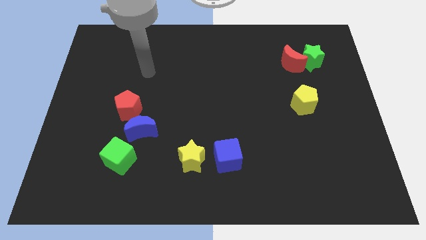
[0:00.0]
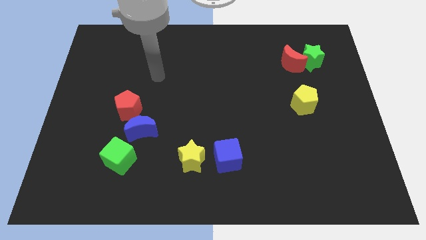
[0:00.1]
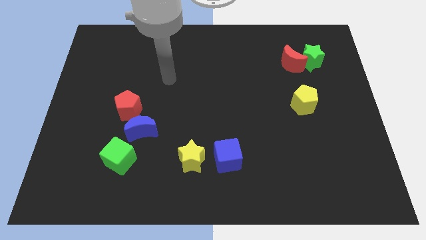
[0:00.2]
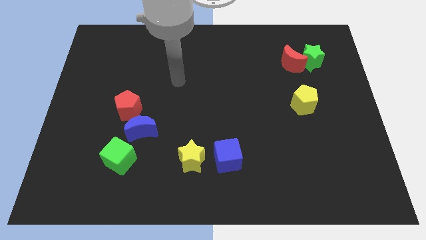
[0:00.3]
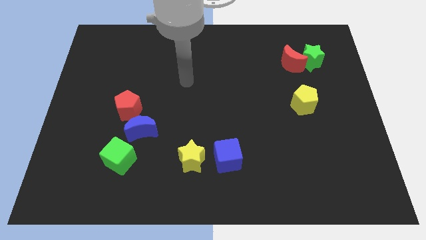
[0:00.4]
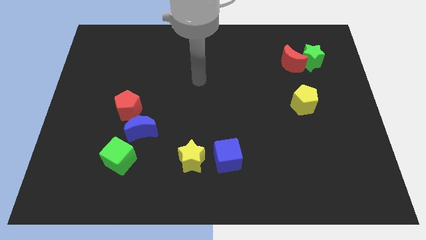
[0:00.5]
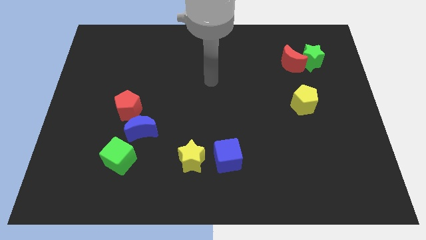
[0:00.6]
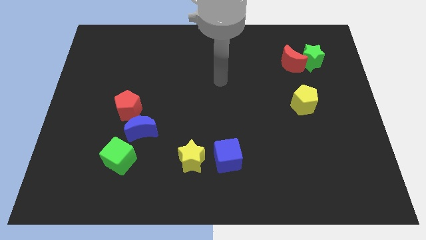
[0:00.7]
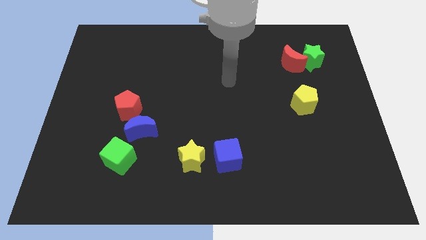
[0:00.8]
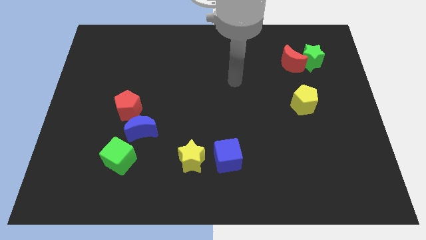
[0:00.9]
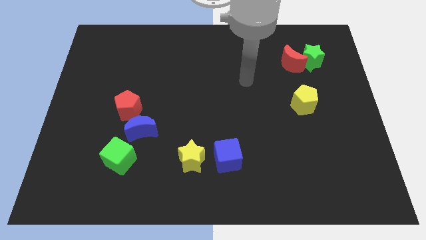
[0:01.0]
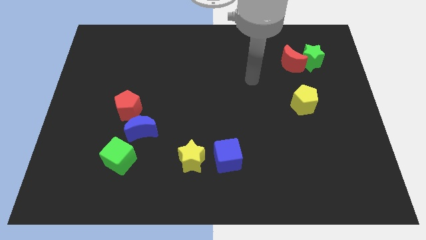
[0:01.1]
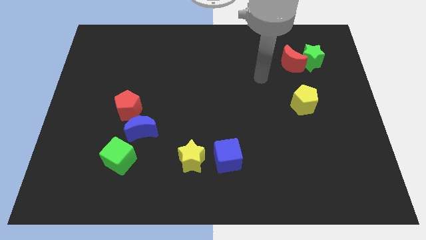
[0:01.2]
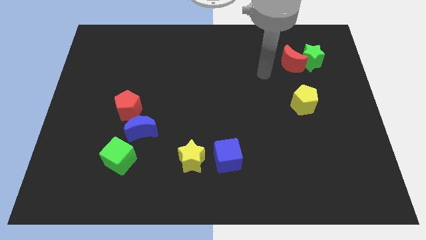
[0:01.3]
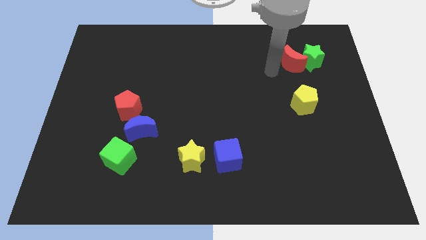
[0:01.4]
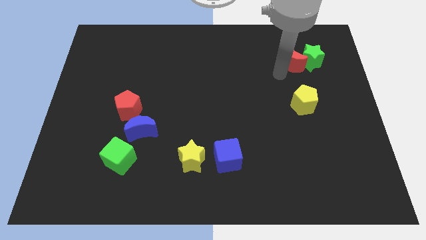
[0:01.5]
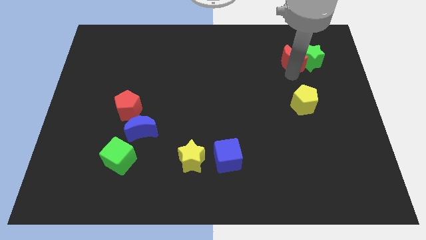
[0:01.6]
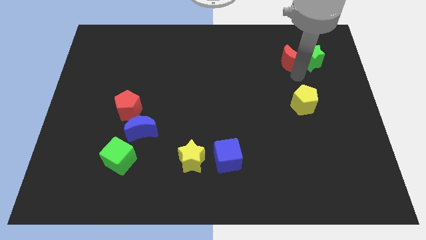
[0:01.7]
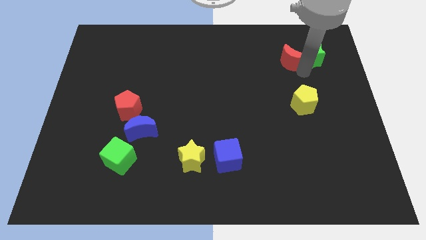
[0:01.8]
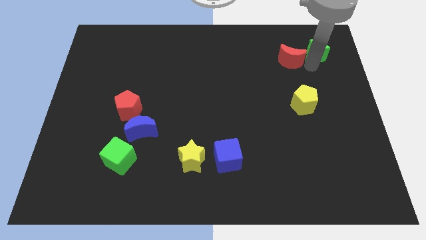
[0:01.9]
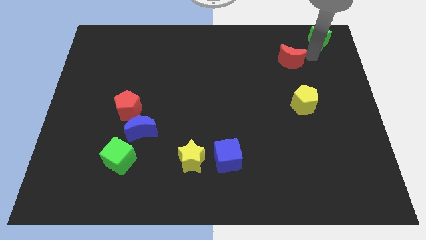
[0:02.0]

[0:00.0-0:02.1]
move the red moon away from the green star

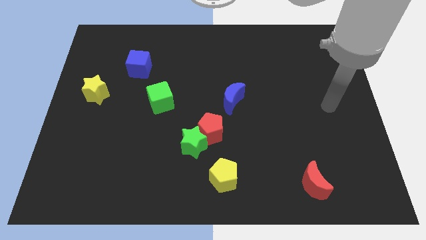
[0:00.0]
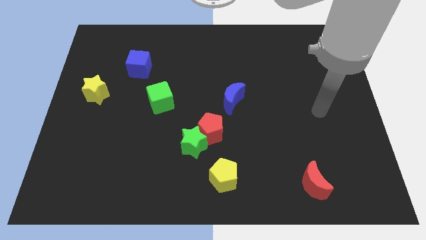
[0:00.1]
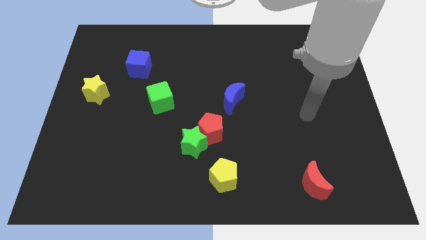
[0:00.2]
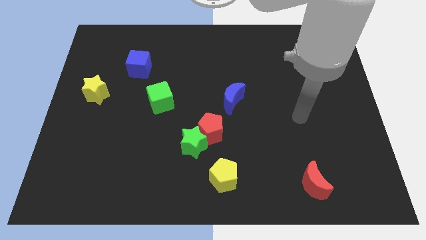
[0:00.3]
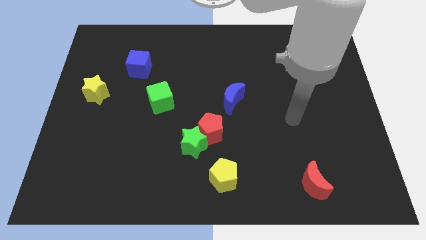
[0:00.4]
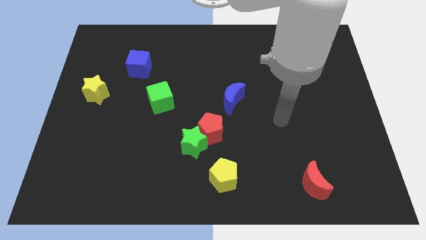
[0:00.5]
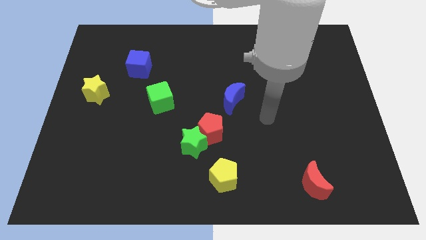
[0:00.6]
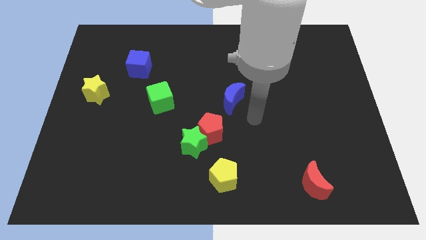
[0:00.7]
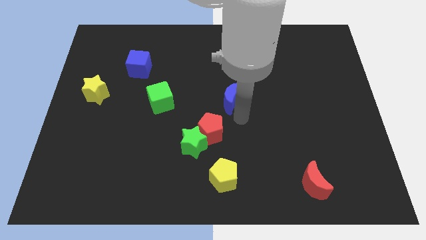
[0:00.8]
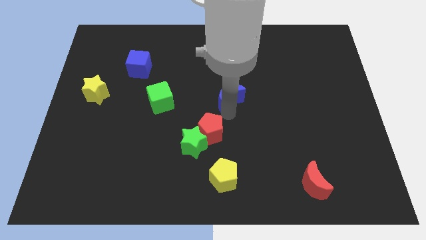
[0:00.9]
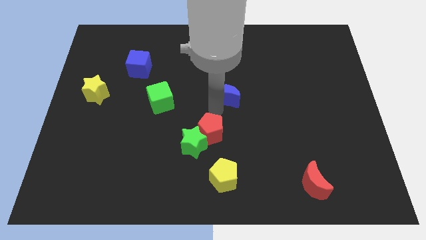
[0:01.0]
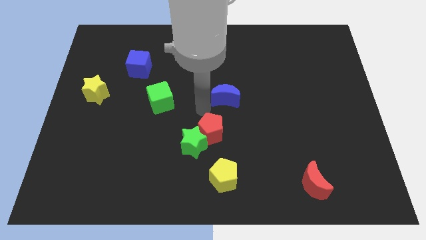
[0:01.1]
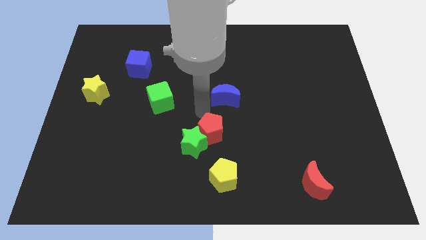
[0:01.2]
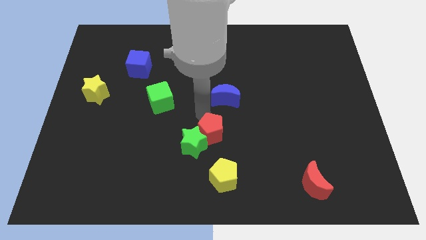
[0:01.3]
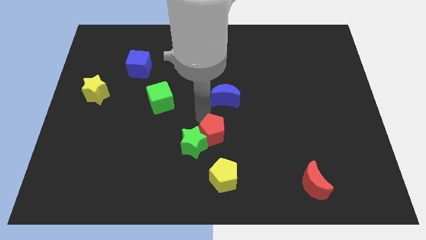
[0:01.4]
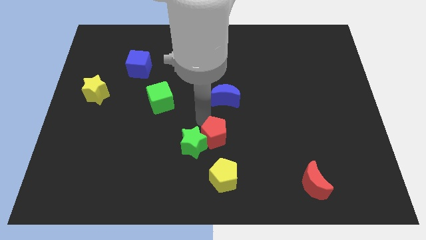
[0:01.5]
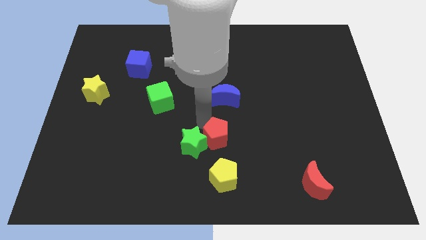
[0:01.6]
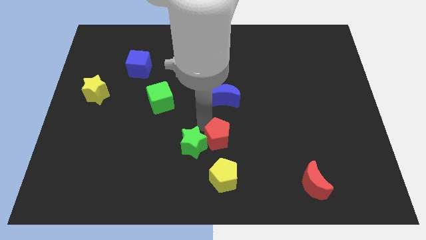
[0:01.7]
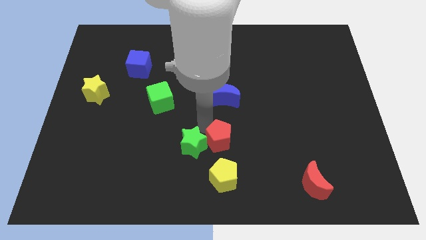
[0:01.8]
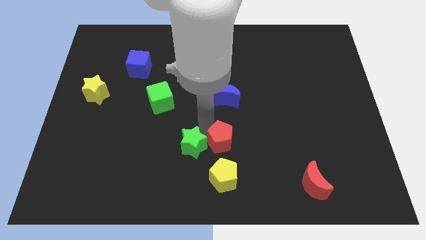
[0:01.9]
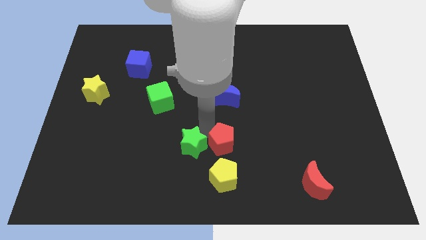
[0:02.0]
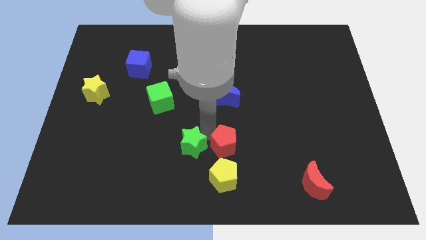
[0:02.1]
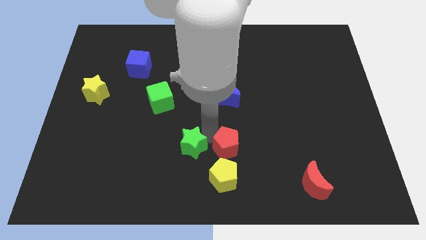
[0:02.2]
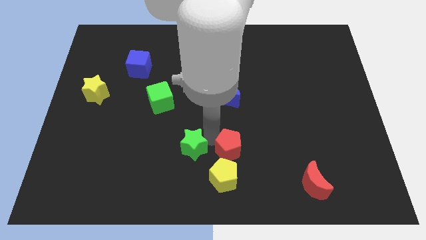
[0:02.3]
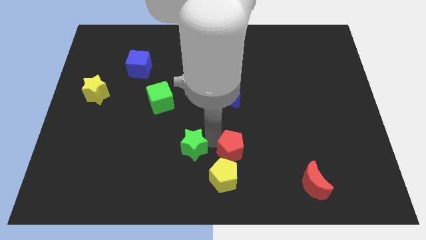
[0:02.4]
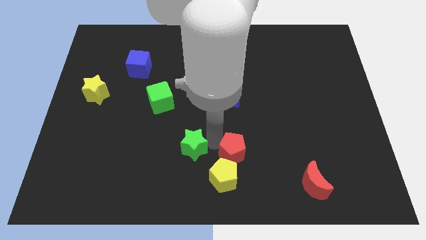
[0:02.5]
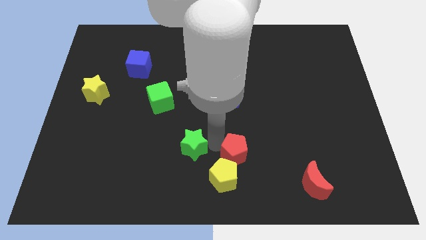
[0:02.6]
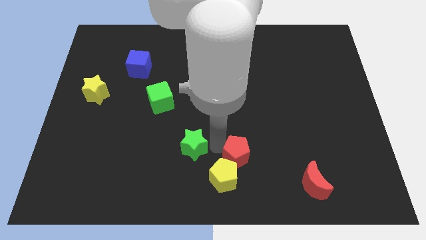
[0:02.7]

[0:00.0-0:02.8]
move the red pentagon away from the green star and blue moon

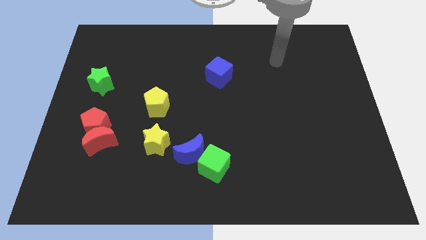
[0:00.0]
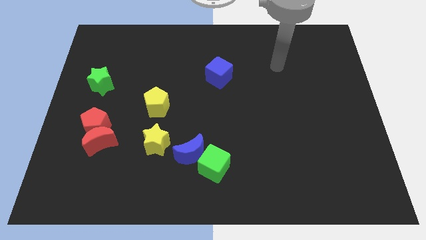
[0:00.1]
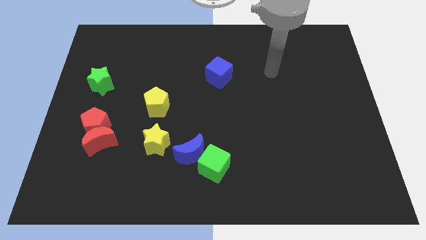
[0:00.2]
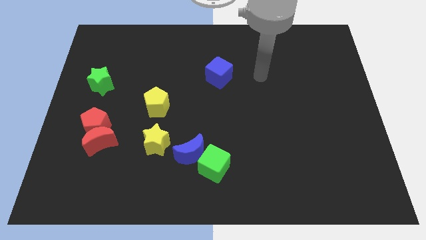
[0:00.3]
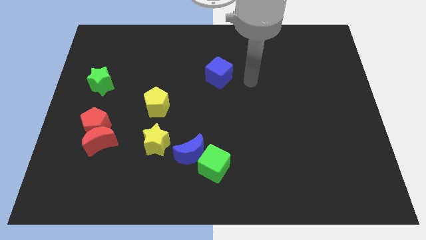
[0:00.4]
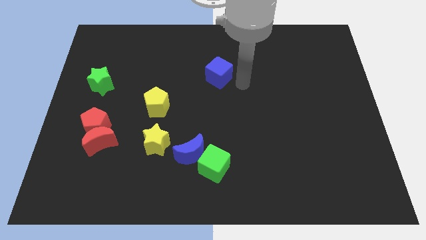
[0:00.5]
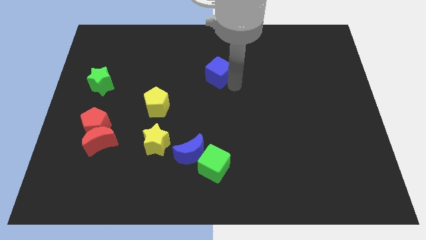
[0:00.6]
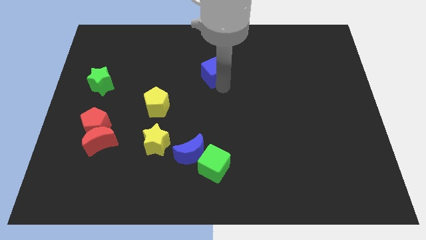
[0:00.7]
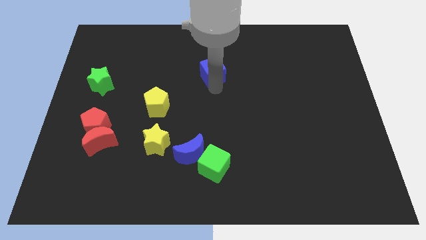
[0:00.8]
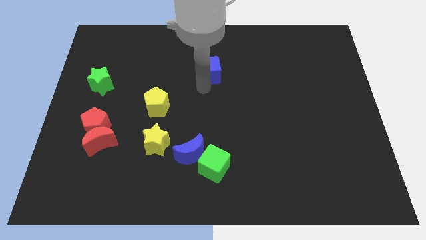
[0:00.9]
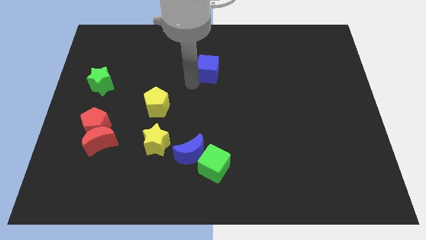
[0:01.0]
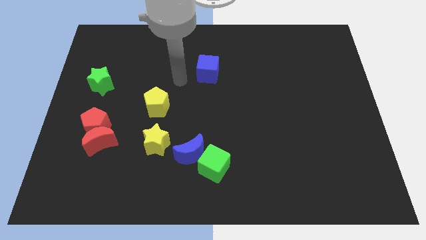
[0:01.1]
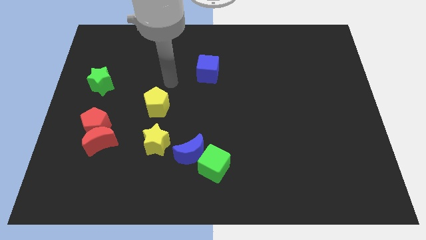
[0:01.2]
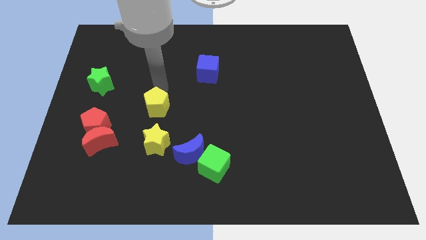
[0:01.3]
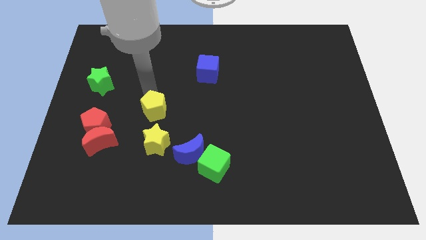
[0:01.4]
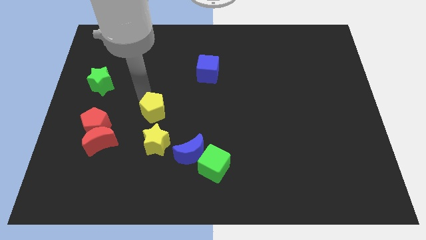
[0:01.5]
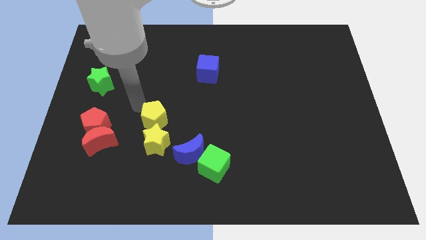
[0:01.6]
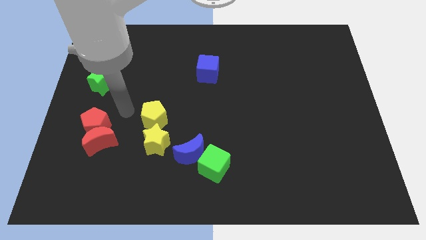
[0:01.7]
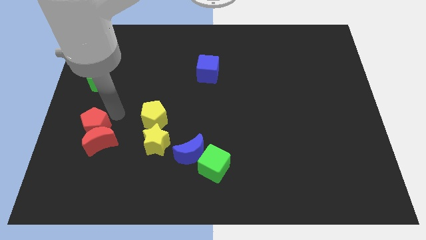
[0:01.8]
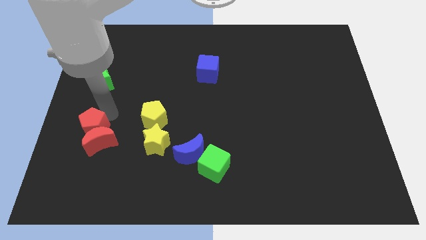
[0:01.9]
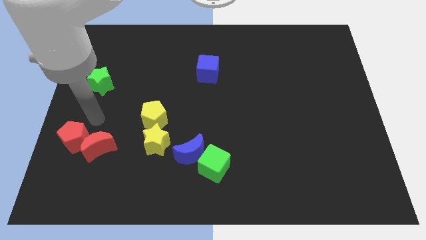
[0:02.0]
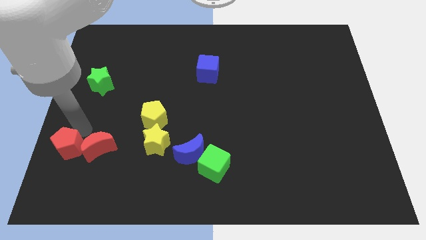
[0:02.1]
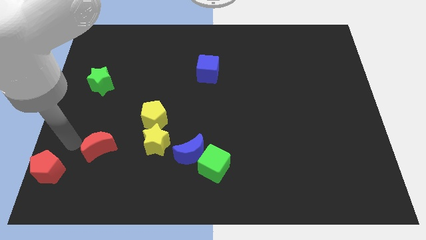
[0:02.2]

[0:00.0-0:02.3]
move the red moon away from the red pentagon

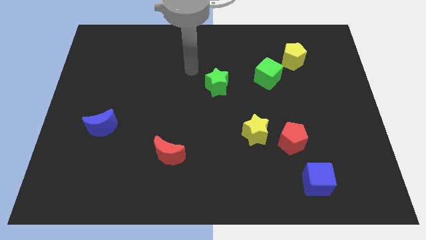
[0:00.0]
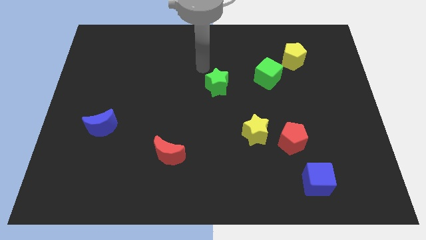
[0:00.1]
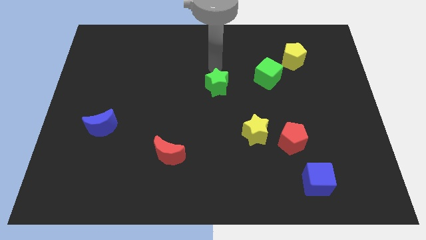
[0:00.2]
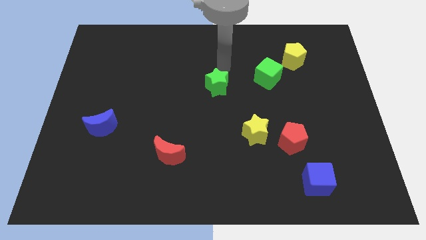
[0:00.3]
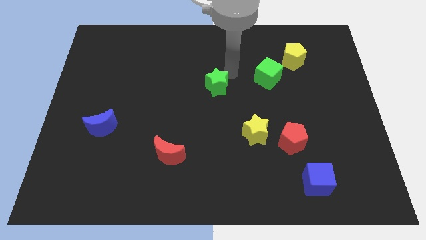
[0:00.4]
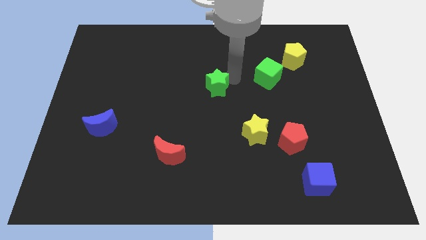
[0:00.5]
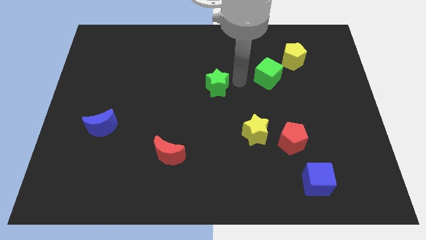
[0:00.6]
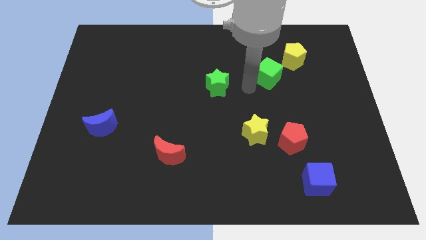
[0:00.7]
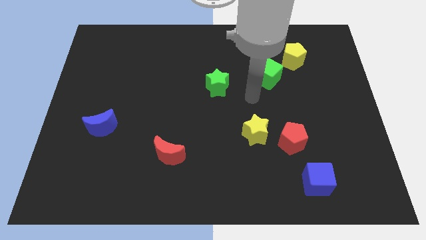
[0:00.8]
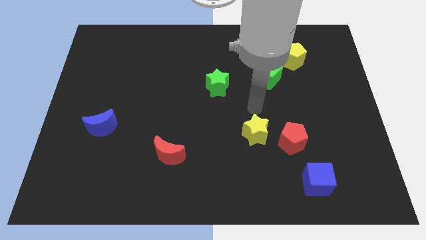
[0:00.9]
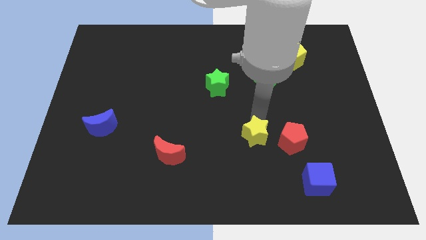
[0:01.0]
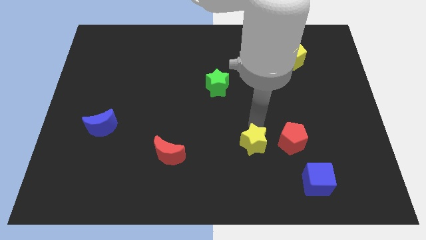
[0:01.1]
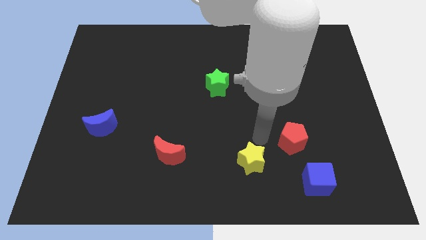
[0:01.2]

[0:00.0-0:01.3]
pull the red pentagon apart from the yellow star

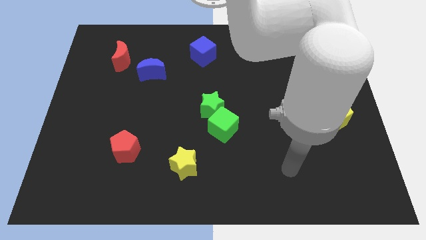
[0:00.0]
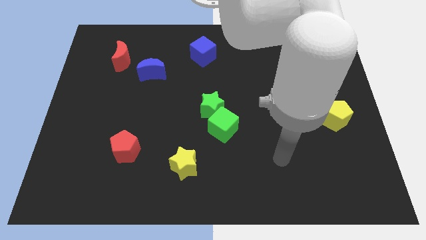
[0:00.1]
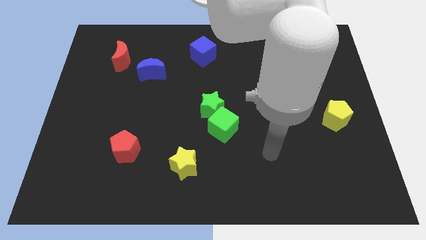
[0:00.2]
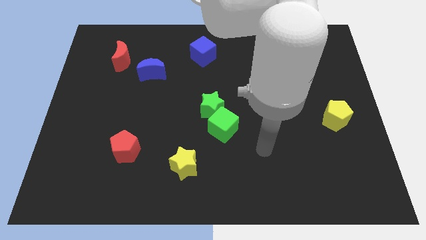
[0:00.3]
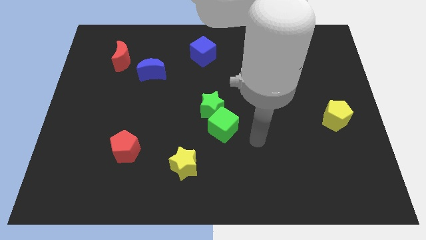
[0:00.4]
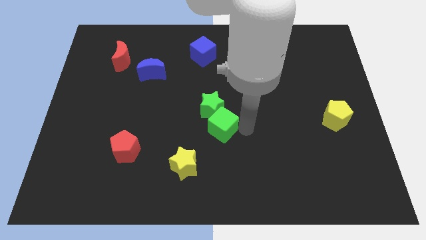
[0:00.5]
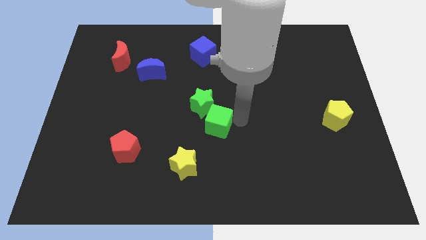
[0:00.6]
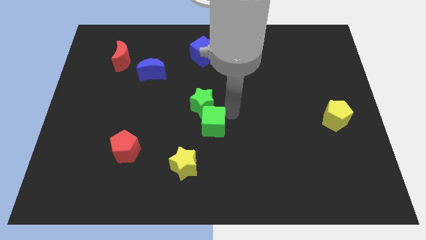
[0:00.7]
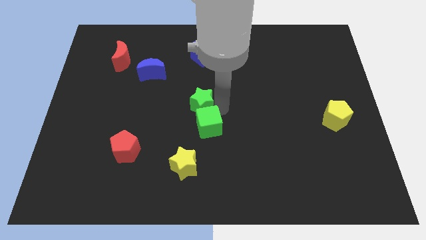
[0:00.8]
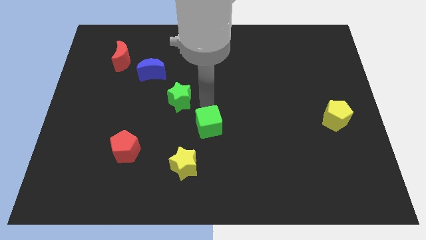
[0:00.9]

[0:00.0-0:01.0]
move the green cube away from the green star
